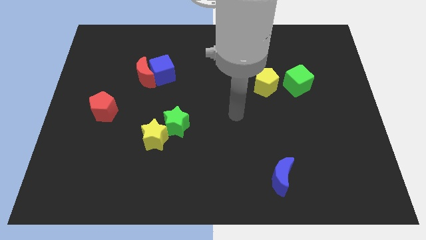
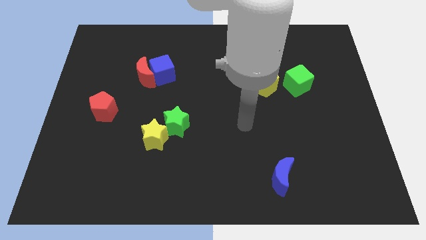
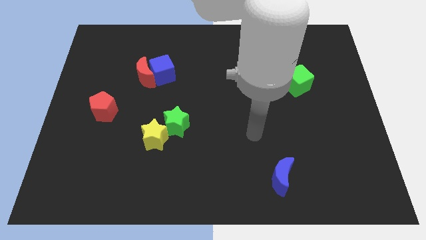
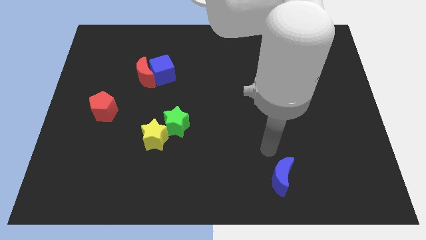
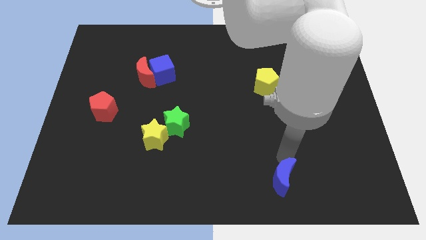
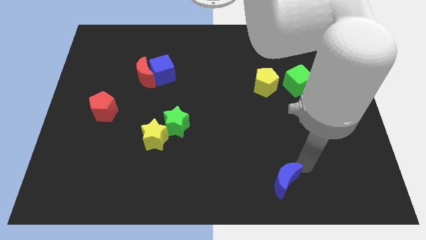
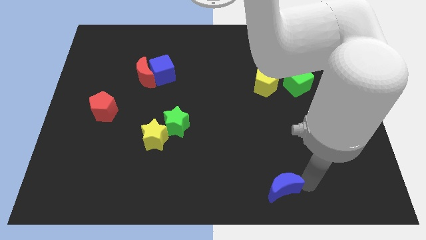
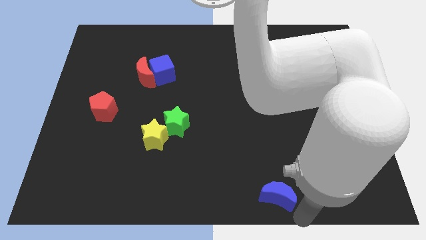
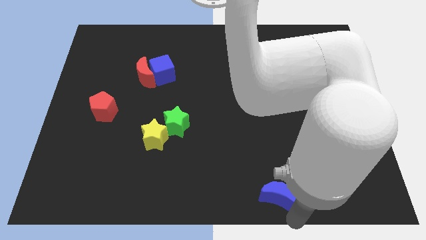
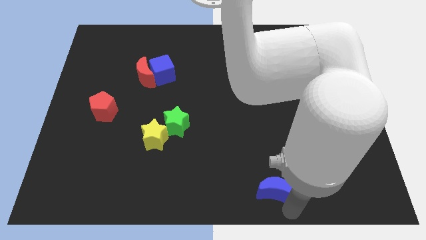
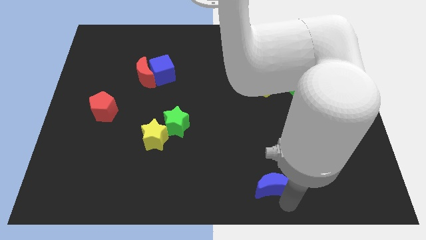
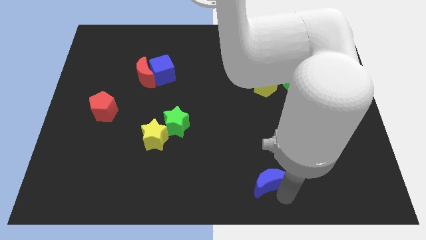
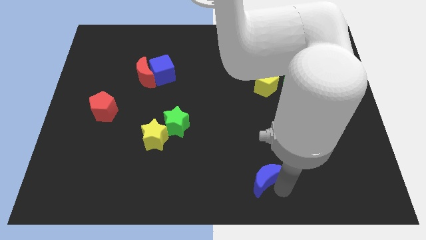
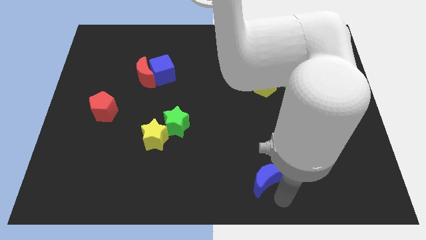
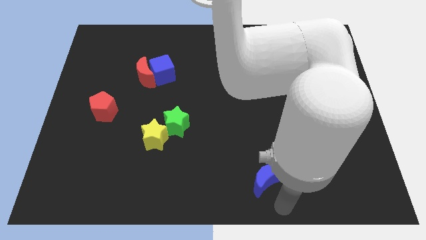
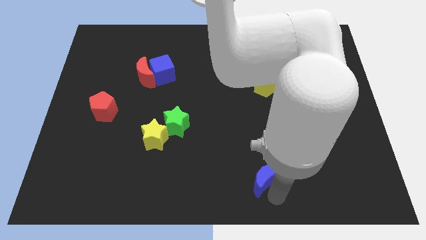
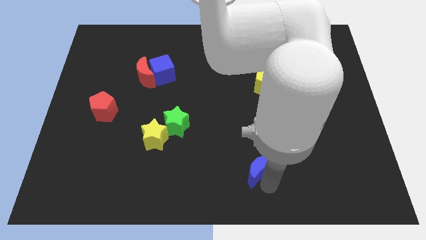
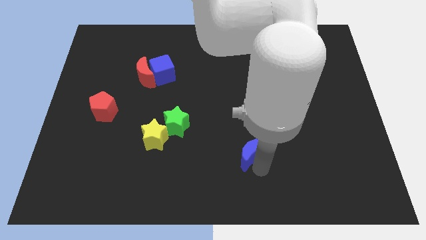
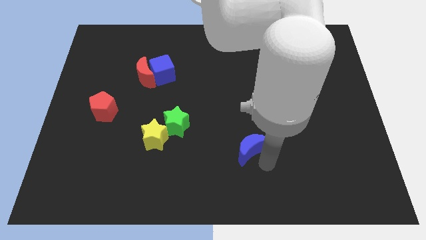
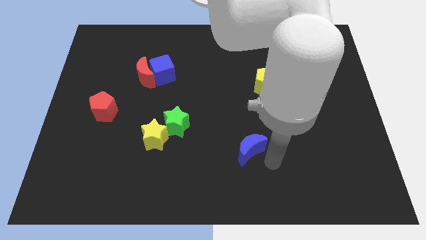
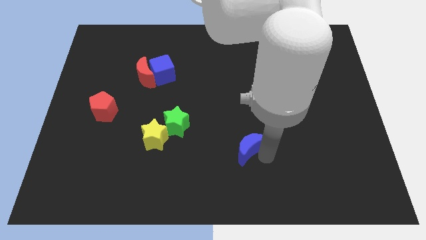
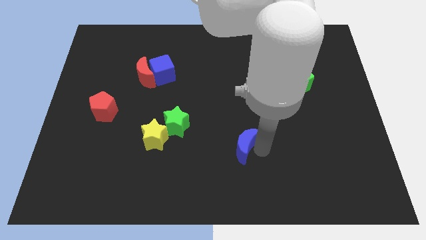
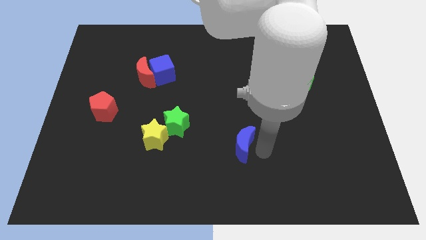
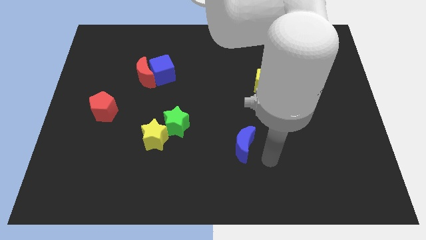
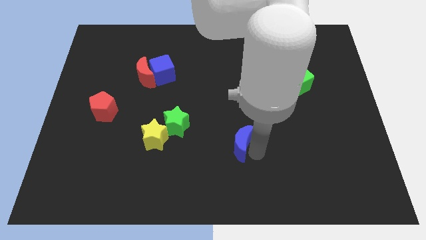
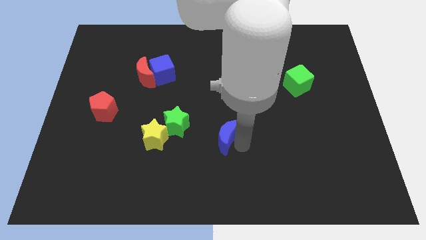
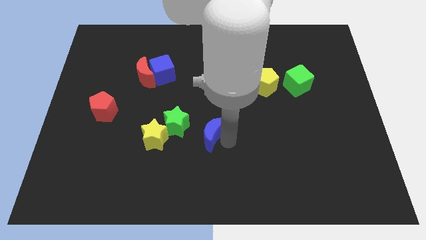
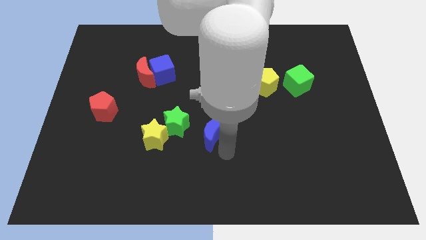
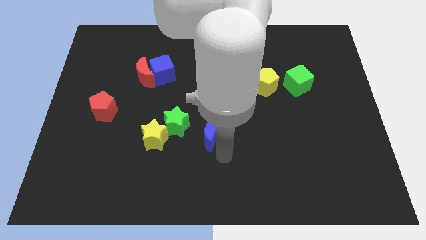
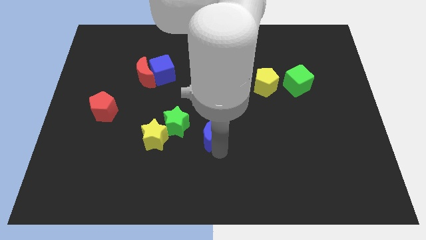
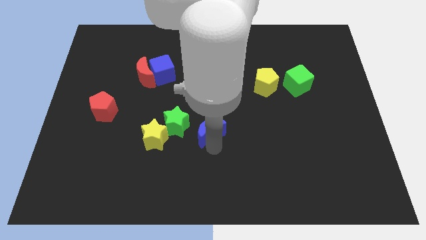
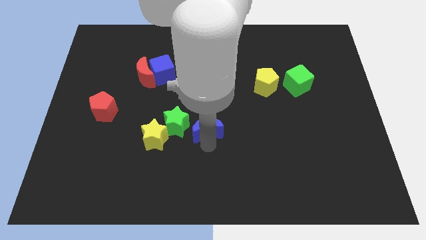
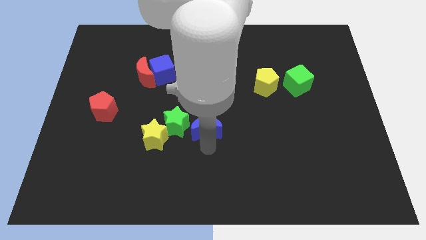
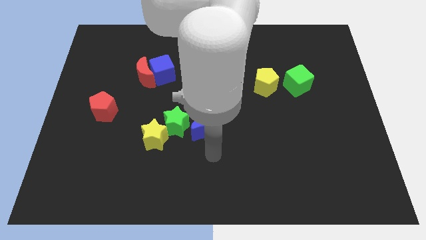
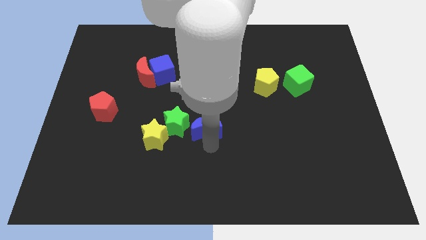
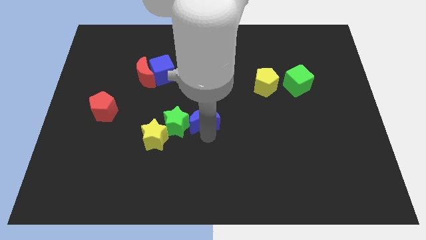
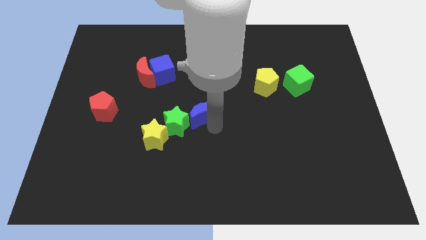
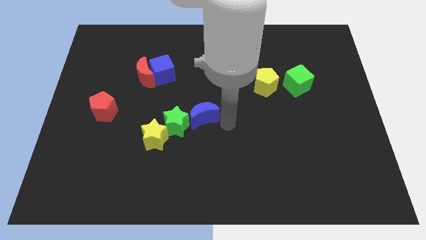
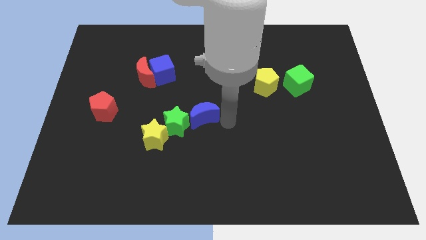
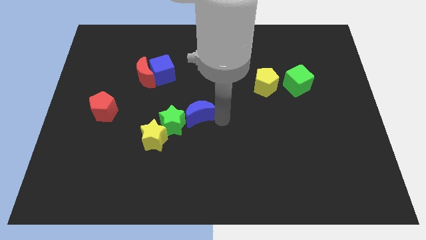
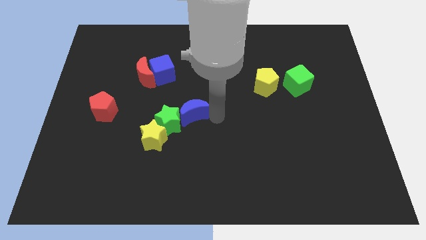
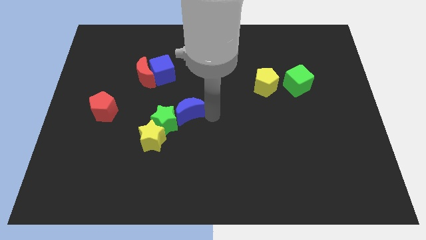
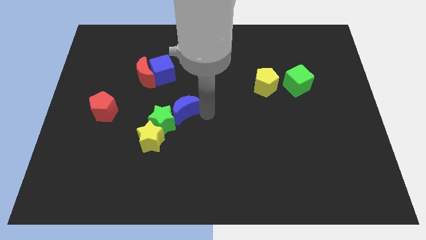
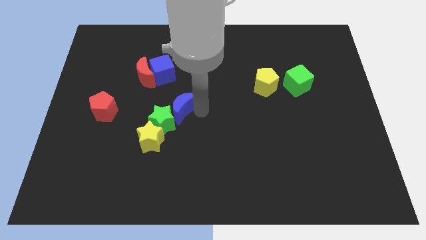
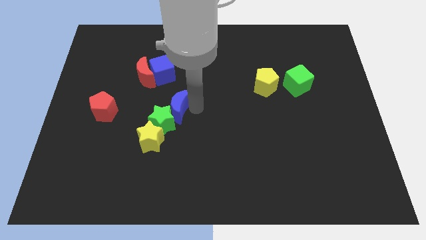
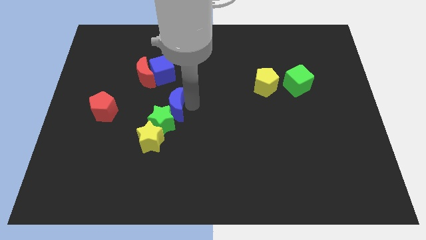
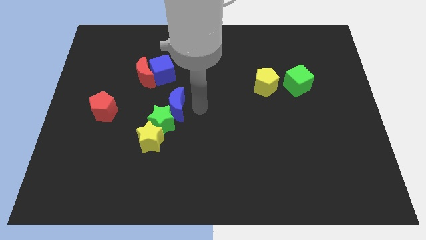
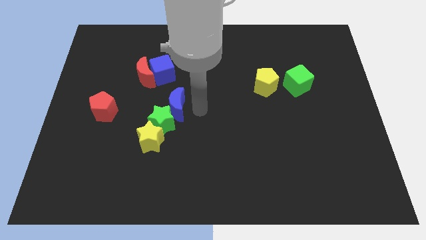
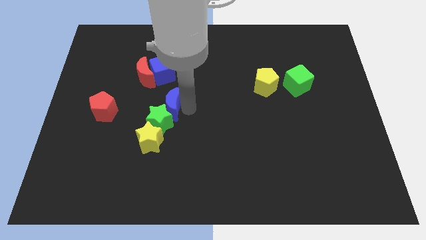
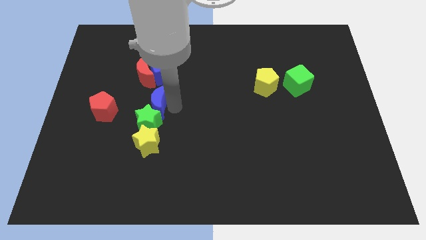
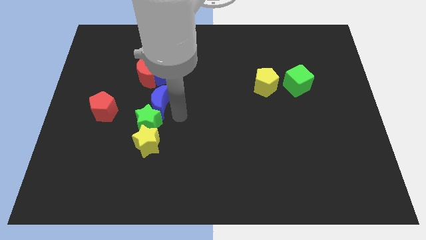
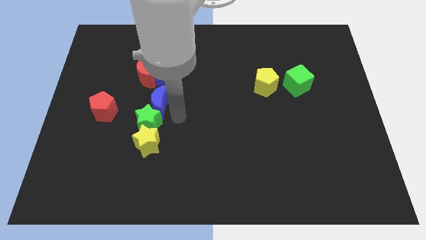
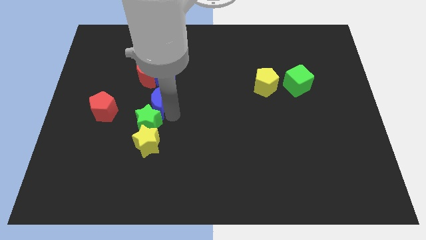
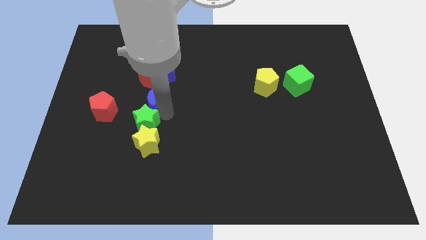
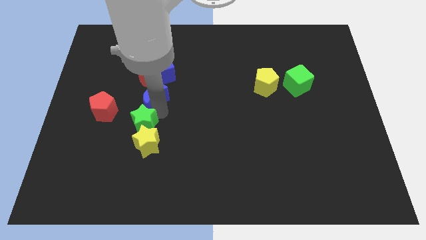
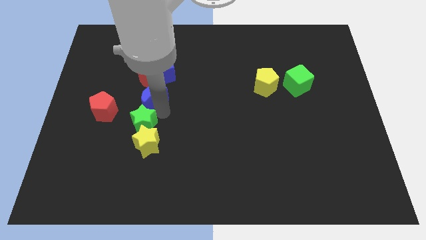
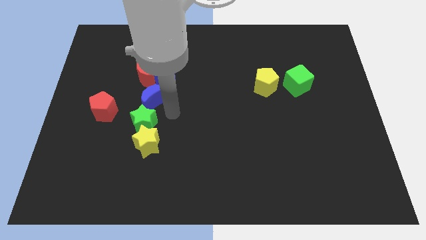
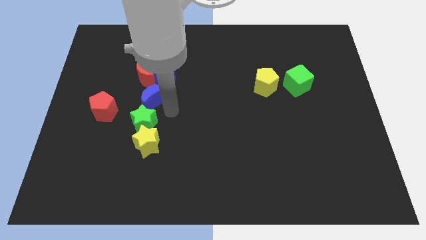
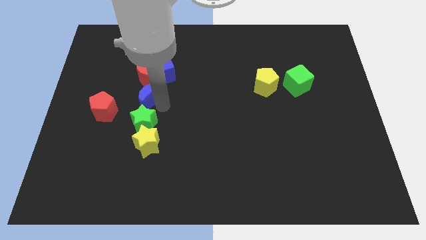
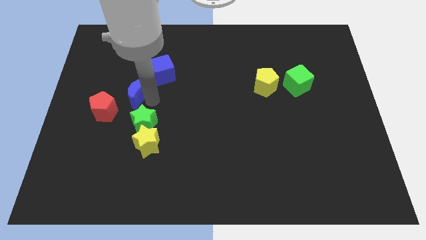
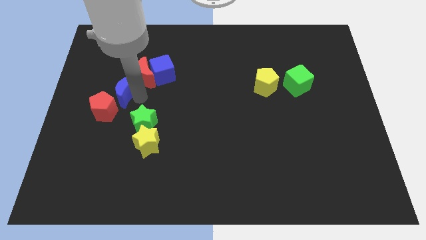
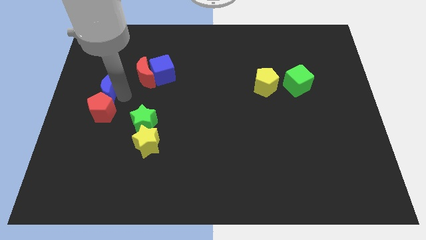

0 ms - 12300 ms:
put the blue moon left of the red moon
